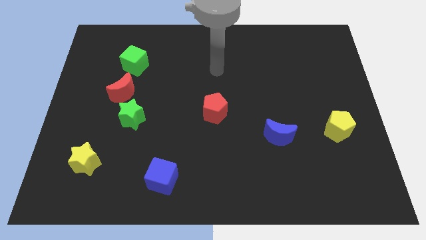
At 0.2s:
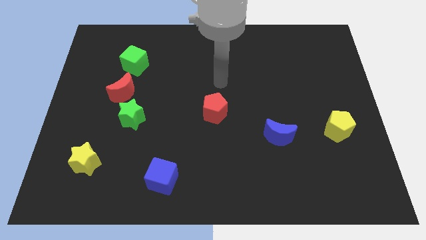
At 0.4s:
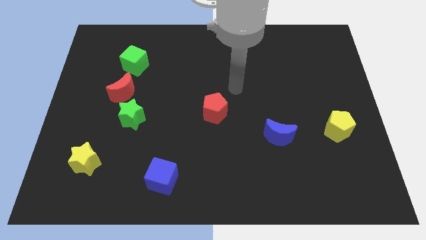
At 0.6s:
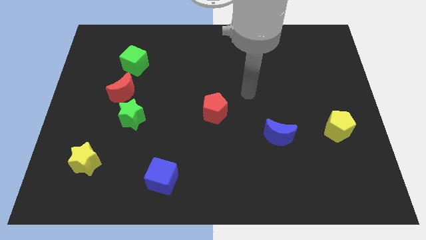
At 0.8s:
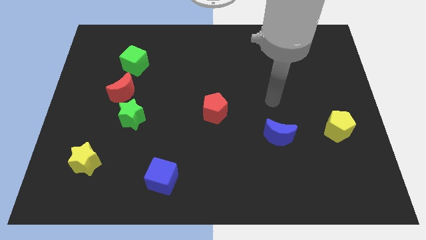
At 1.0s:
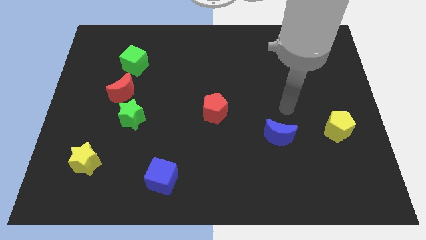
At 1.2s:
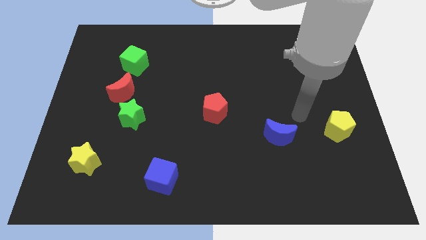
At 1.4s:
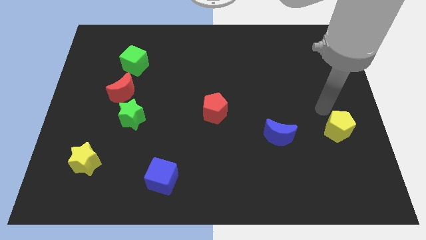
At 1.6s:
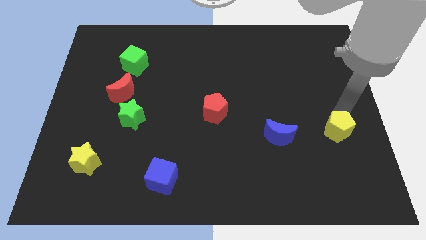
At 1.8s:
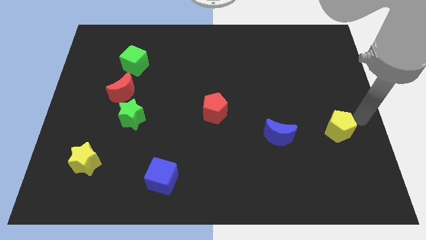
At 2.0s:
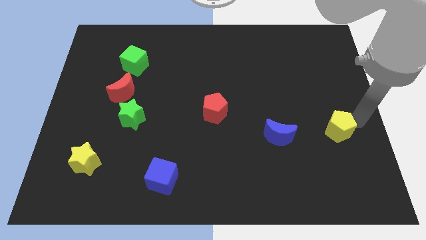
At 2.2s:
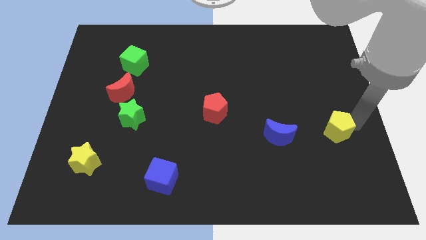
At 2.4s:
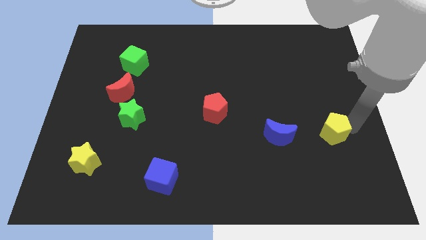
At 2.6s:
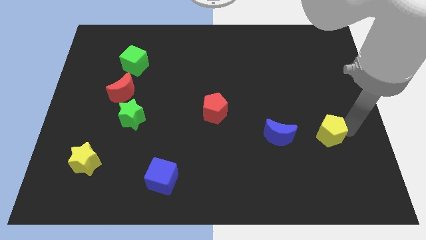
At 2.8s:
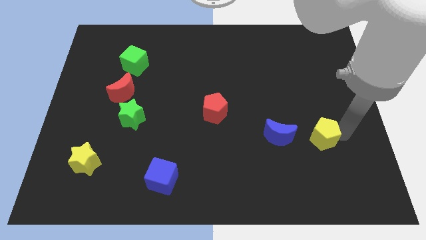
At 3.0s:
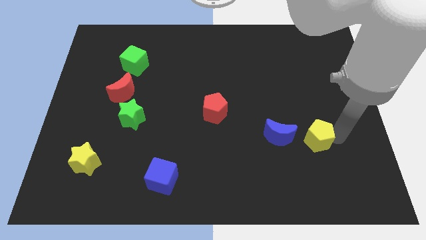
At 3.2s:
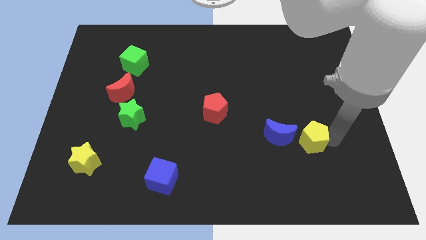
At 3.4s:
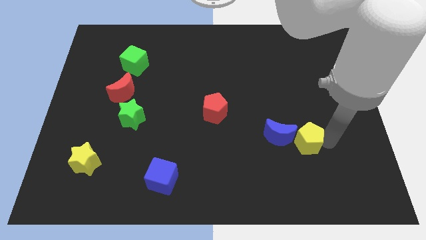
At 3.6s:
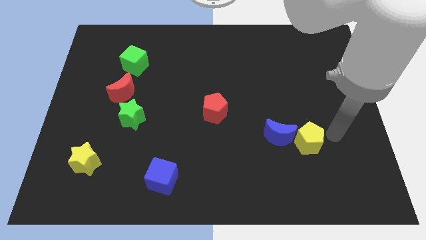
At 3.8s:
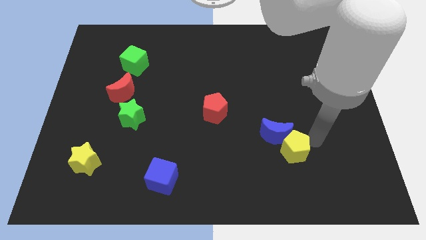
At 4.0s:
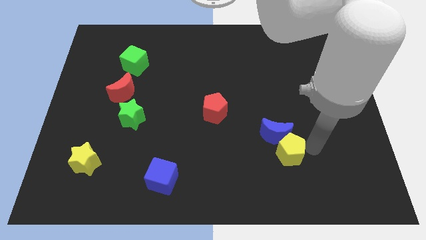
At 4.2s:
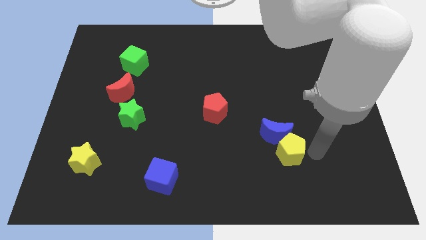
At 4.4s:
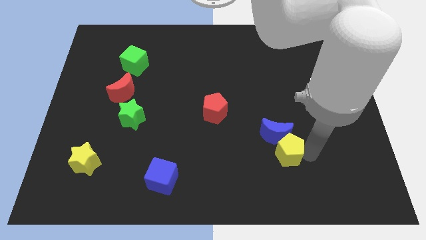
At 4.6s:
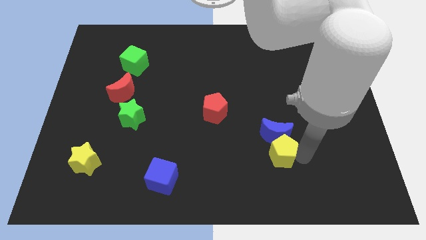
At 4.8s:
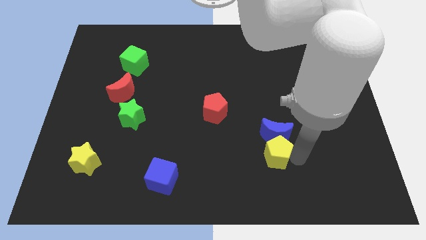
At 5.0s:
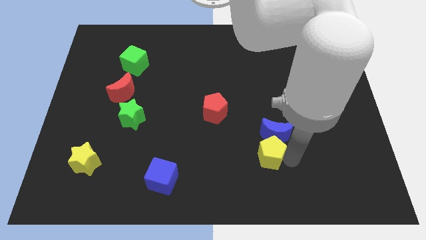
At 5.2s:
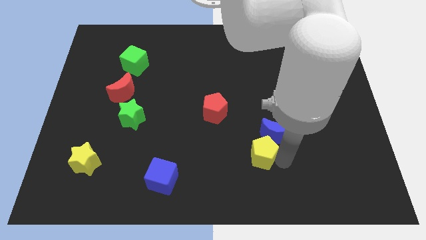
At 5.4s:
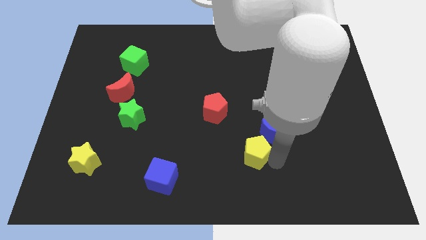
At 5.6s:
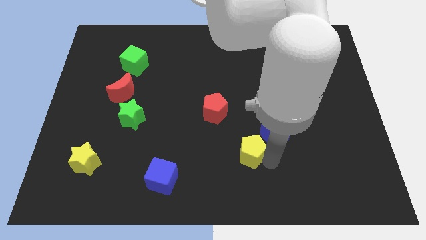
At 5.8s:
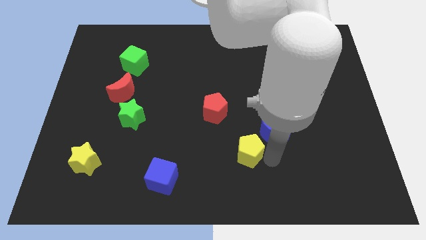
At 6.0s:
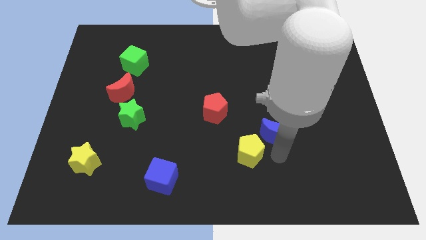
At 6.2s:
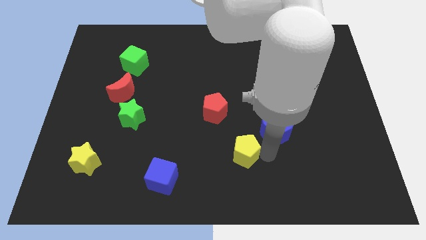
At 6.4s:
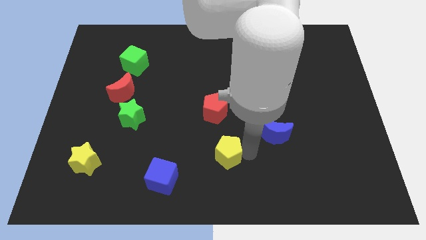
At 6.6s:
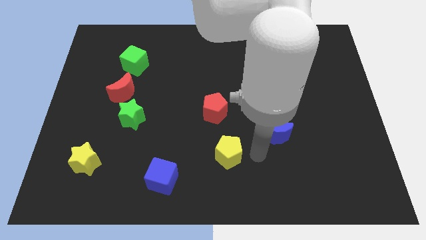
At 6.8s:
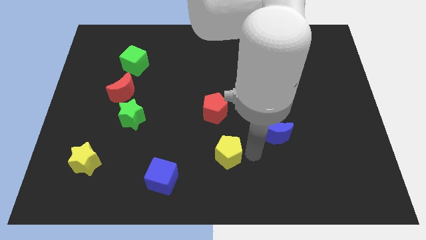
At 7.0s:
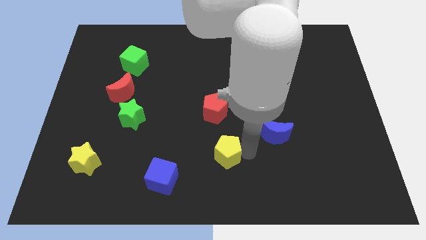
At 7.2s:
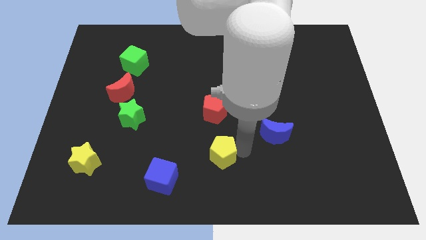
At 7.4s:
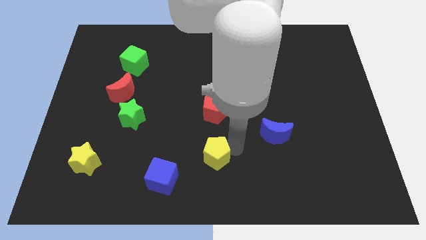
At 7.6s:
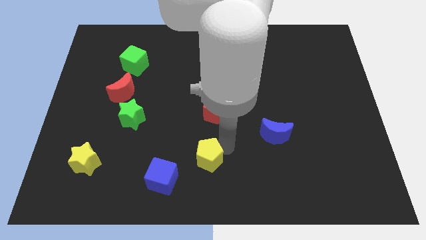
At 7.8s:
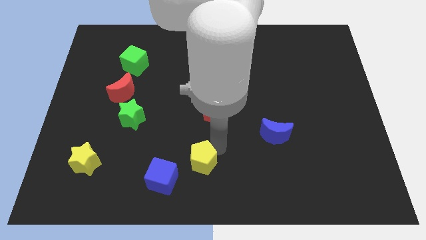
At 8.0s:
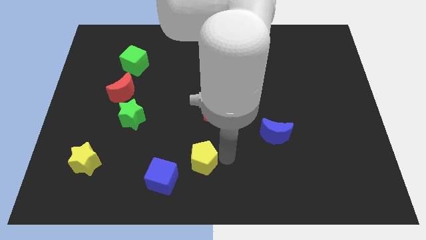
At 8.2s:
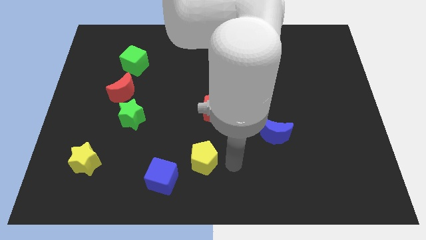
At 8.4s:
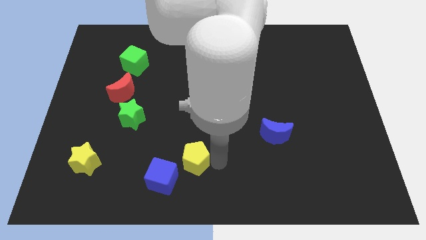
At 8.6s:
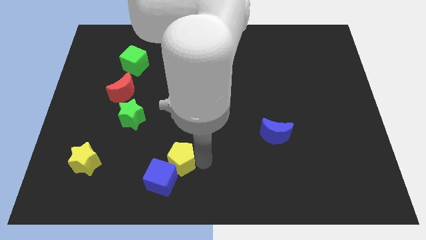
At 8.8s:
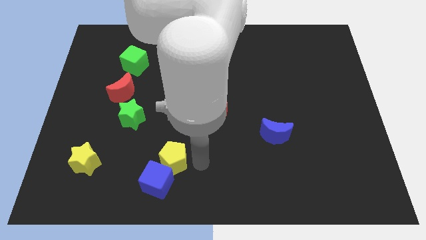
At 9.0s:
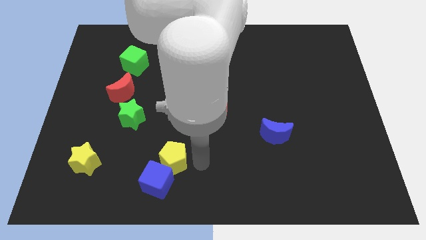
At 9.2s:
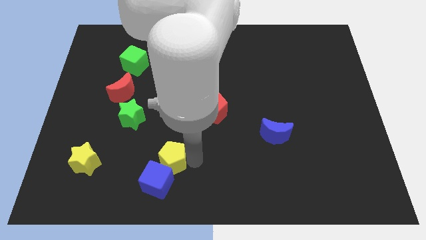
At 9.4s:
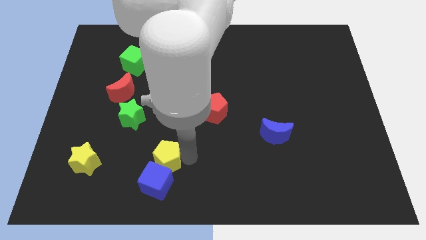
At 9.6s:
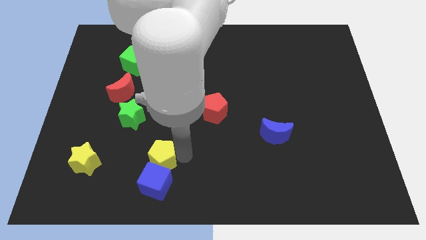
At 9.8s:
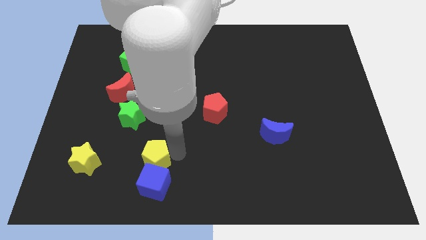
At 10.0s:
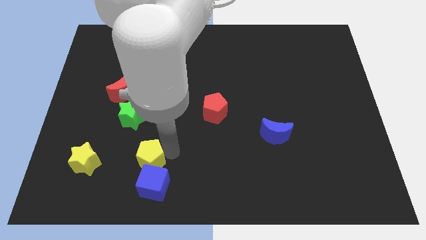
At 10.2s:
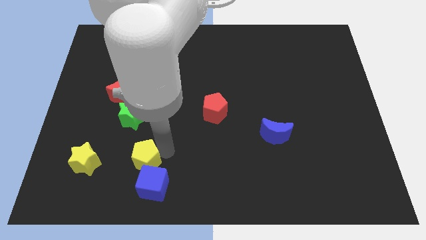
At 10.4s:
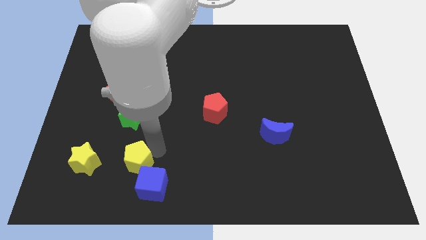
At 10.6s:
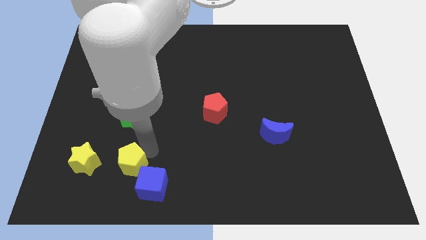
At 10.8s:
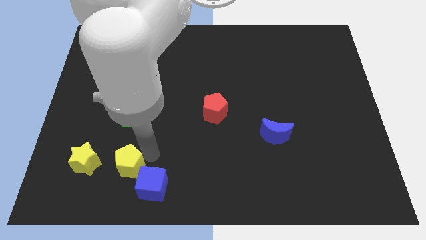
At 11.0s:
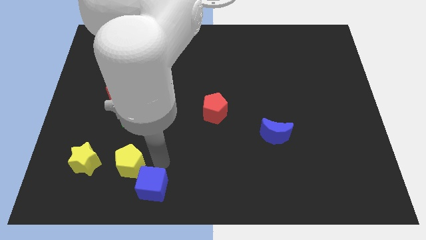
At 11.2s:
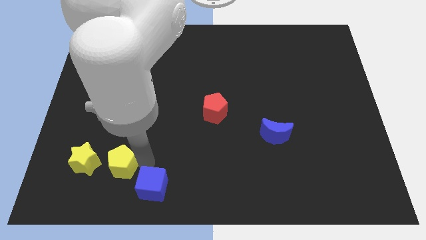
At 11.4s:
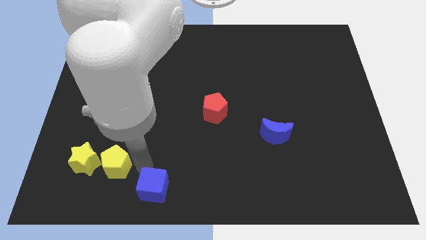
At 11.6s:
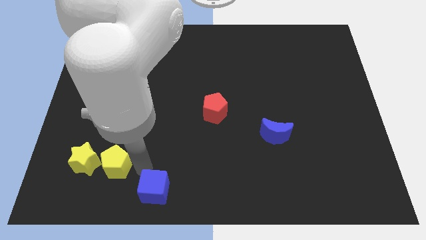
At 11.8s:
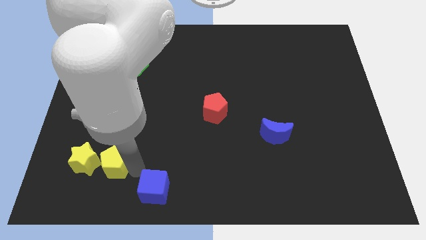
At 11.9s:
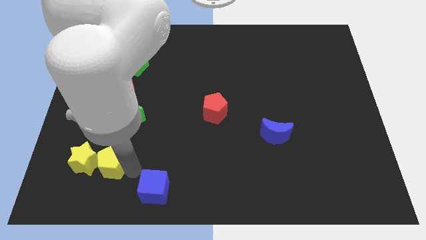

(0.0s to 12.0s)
move the yellow pentagon towards the yellow star

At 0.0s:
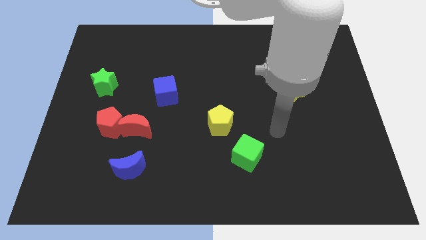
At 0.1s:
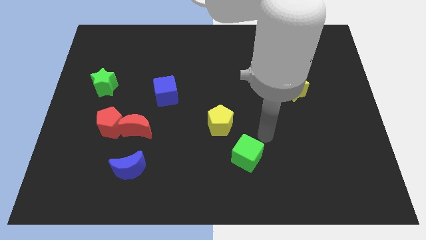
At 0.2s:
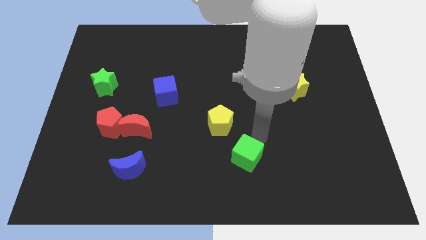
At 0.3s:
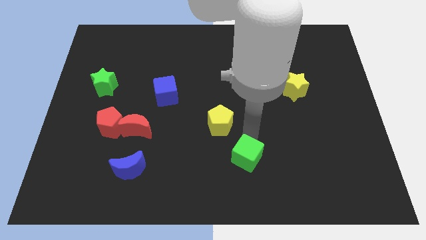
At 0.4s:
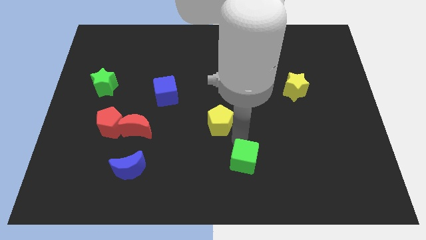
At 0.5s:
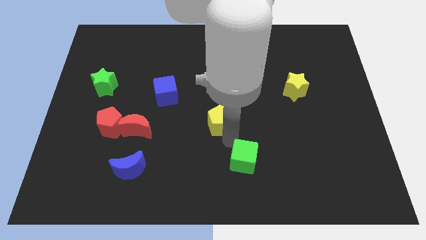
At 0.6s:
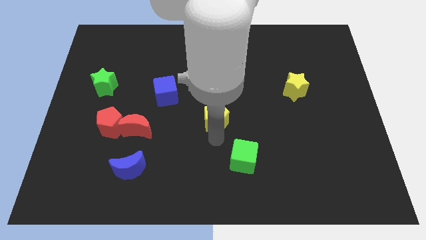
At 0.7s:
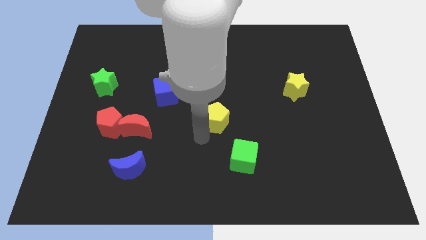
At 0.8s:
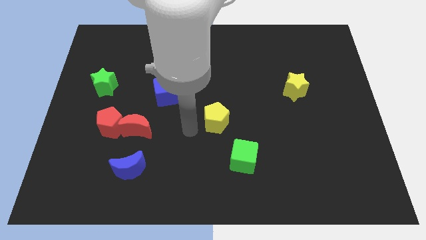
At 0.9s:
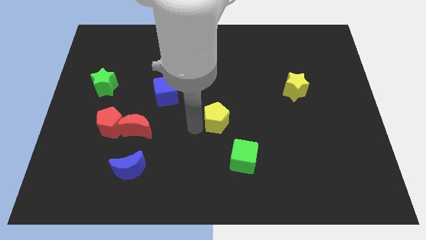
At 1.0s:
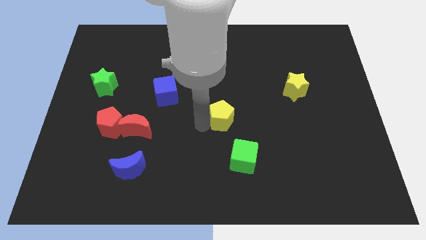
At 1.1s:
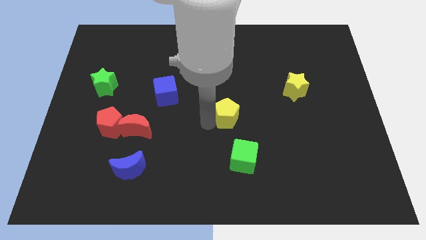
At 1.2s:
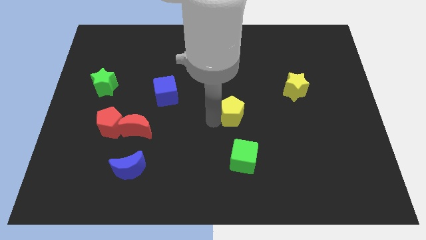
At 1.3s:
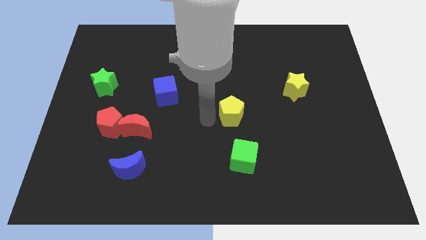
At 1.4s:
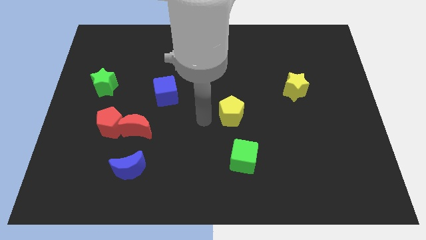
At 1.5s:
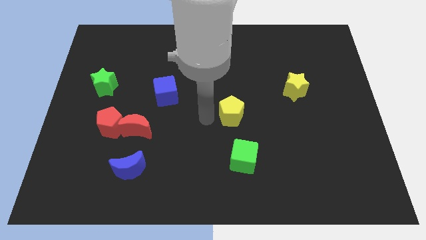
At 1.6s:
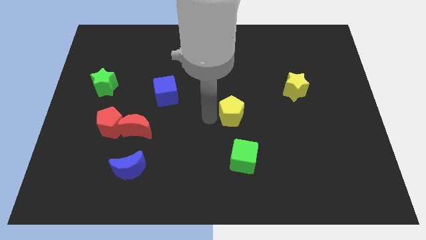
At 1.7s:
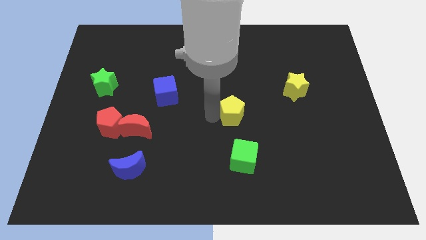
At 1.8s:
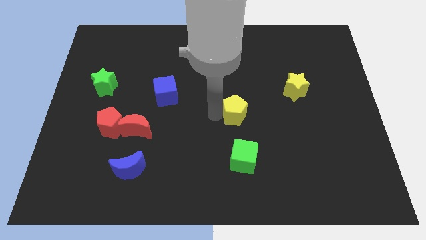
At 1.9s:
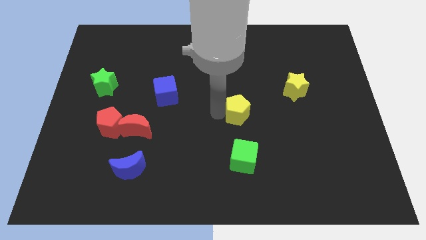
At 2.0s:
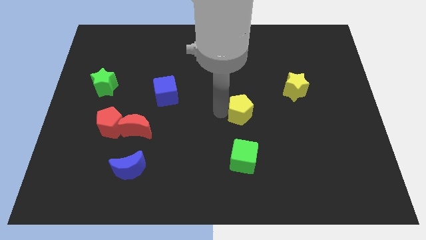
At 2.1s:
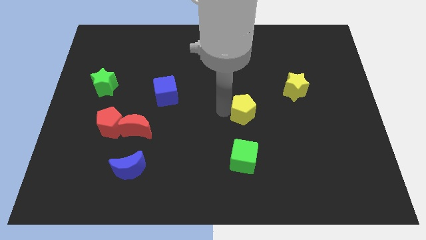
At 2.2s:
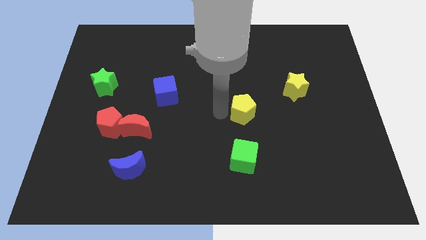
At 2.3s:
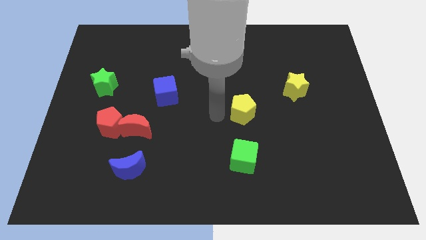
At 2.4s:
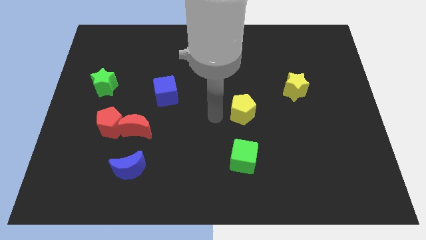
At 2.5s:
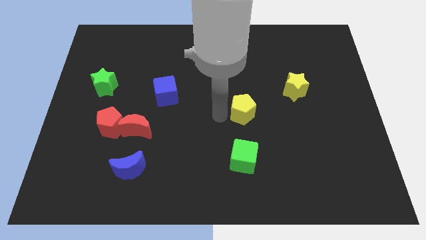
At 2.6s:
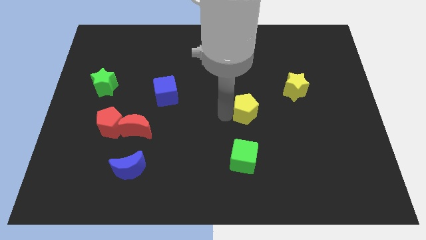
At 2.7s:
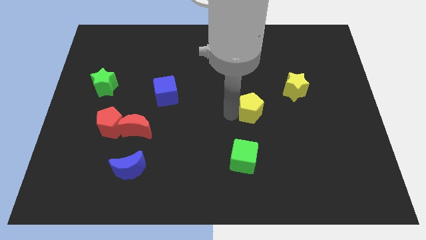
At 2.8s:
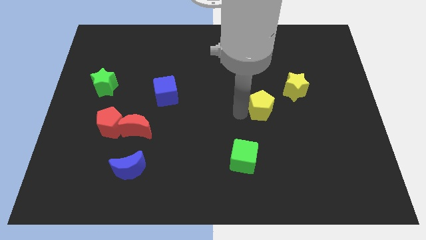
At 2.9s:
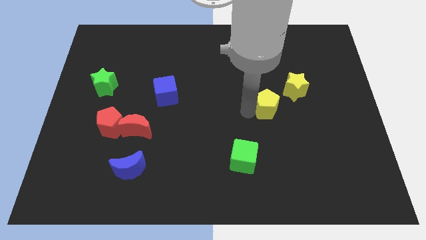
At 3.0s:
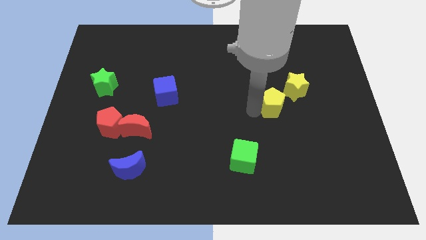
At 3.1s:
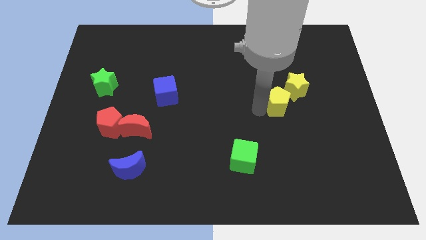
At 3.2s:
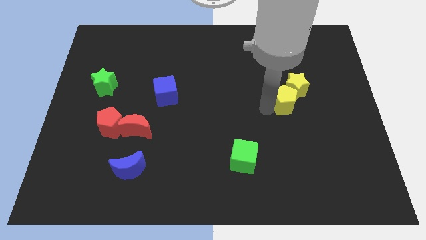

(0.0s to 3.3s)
move the yellow pentagon to the yellow star
